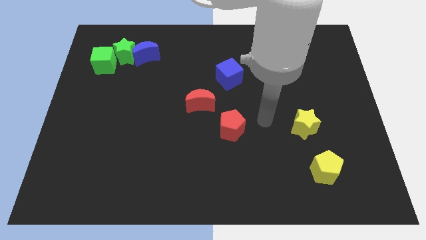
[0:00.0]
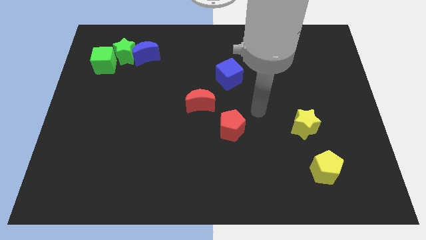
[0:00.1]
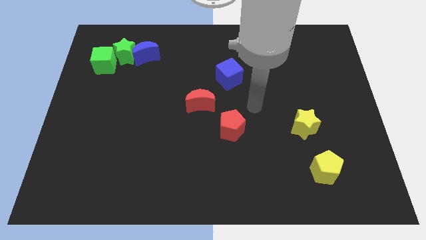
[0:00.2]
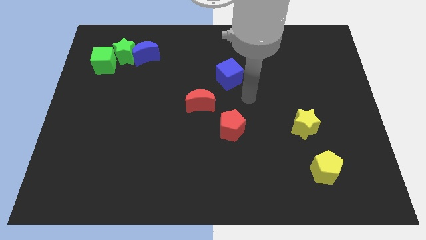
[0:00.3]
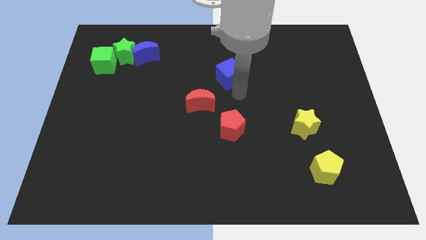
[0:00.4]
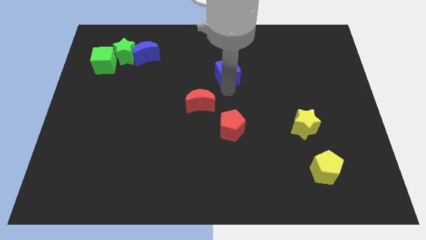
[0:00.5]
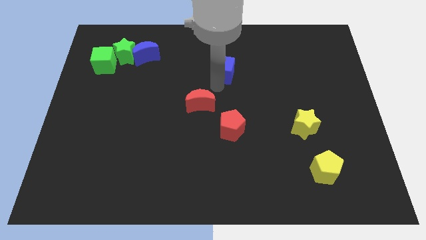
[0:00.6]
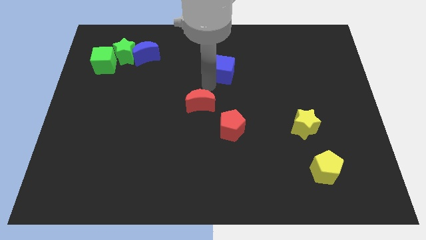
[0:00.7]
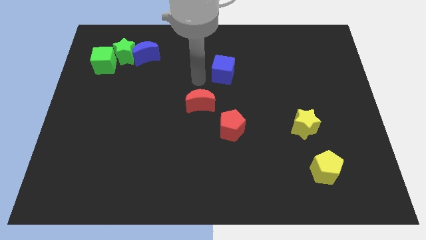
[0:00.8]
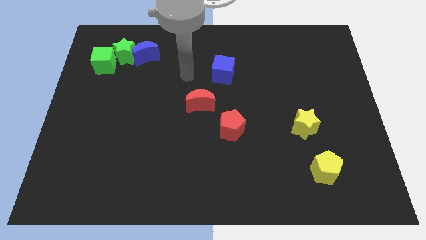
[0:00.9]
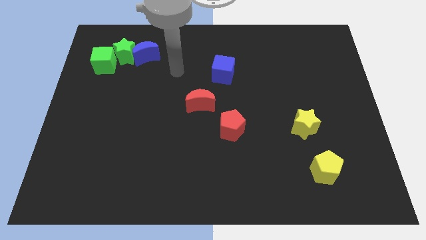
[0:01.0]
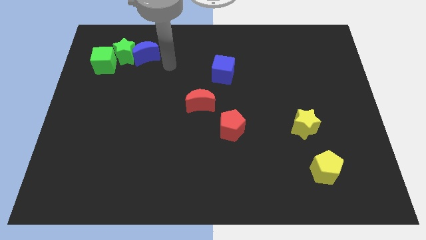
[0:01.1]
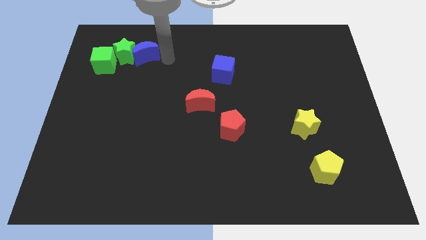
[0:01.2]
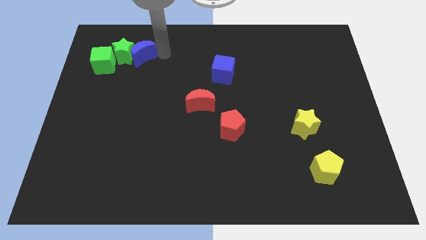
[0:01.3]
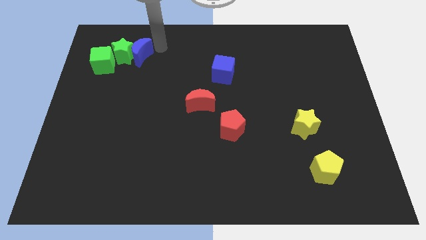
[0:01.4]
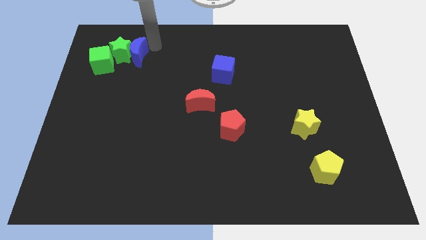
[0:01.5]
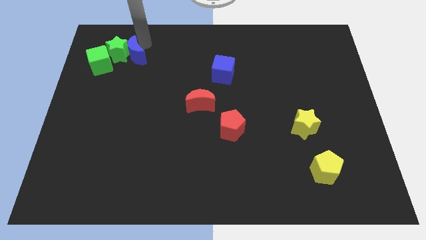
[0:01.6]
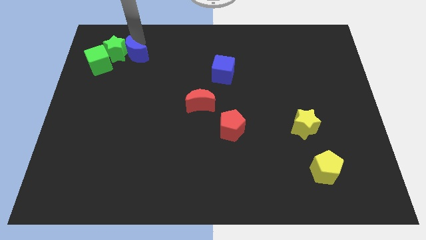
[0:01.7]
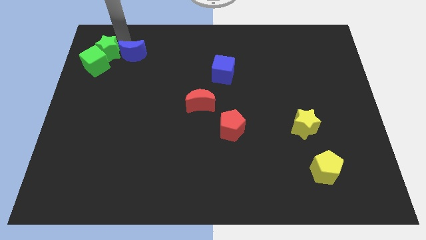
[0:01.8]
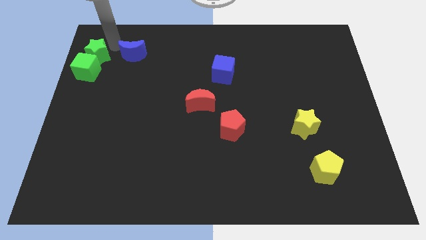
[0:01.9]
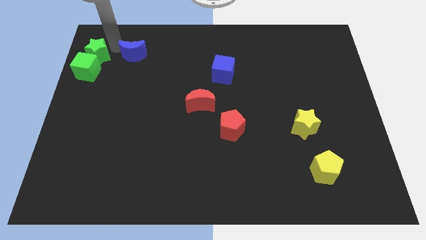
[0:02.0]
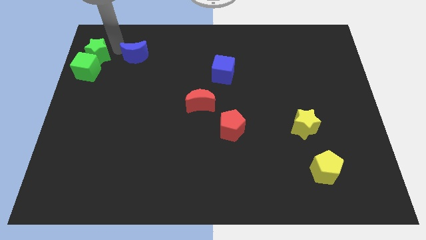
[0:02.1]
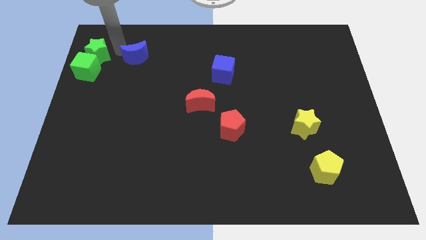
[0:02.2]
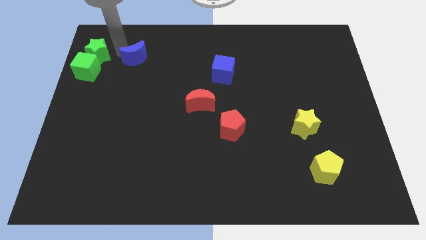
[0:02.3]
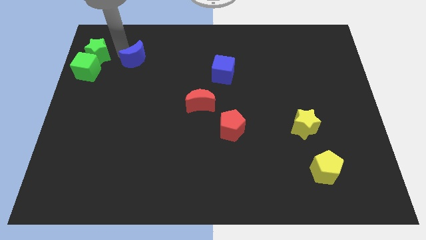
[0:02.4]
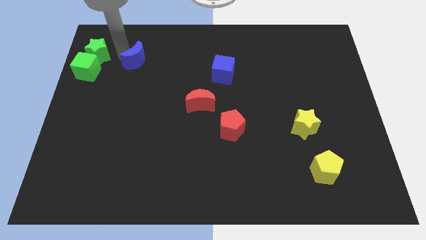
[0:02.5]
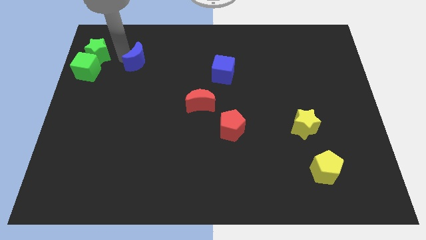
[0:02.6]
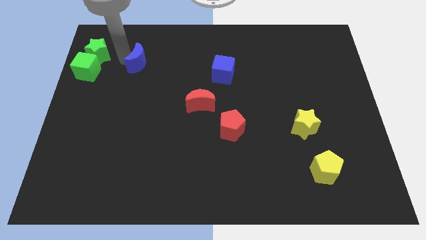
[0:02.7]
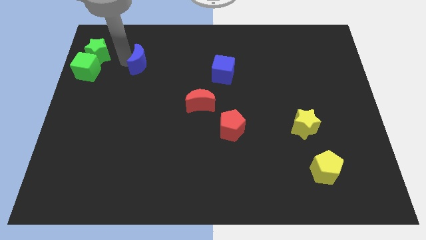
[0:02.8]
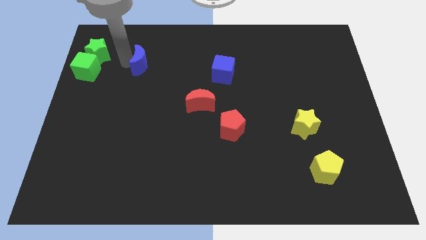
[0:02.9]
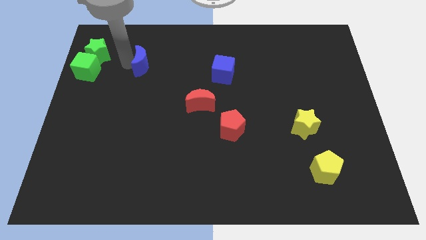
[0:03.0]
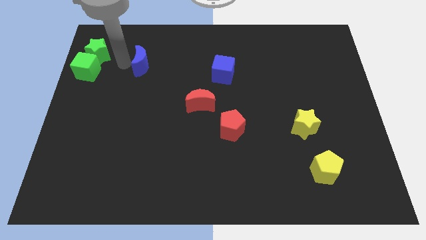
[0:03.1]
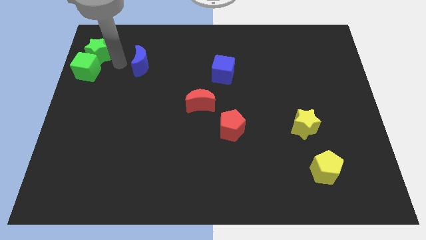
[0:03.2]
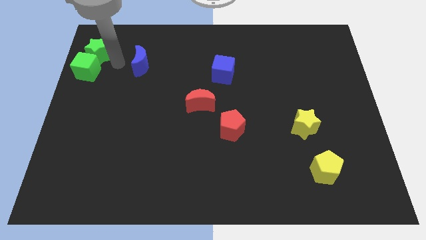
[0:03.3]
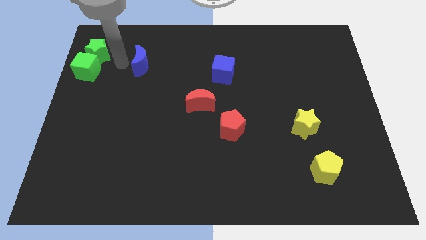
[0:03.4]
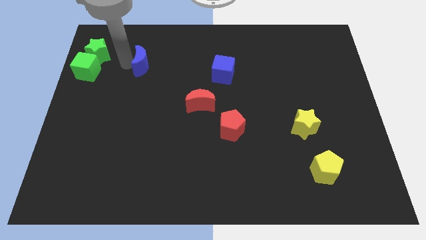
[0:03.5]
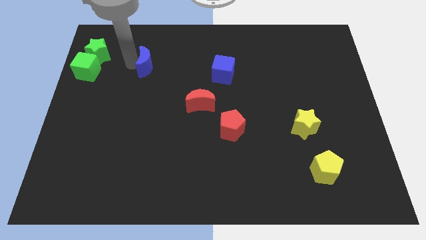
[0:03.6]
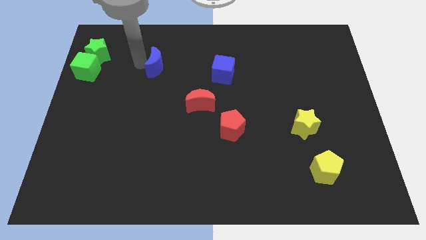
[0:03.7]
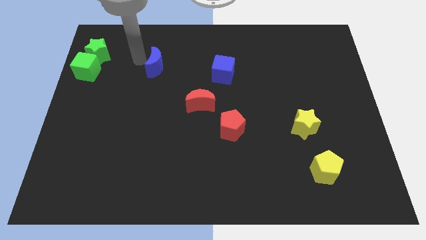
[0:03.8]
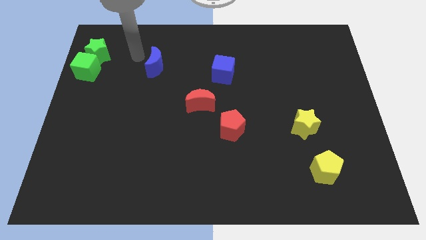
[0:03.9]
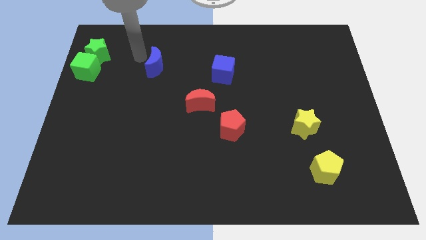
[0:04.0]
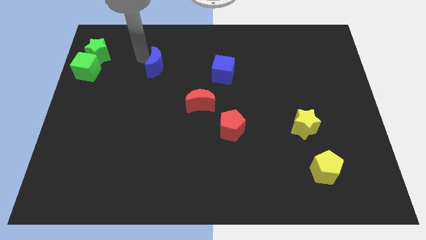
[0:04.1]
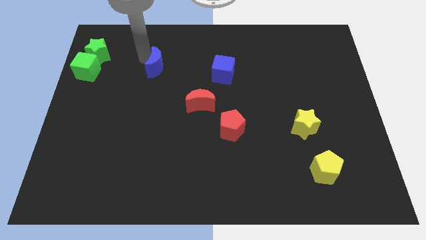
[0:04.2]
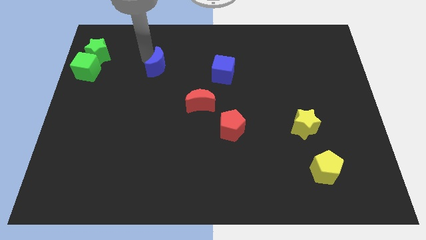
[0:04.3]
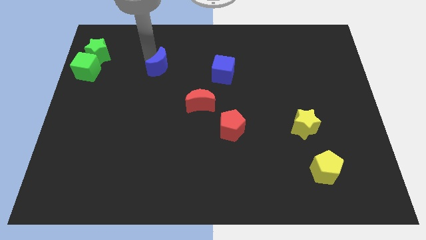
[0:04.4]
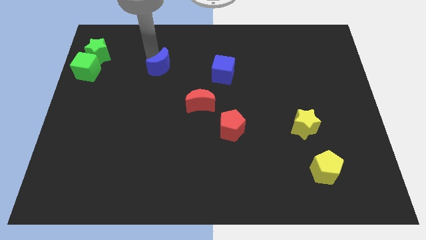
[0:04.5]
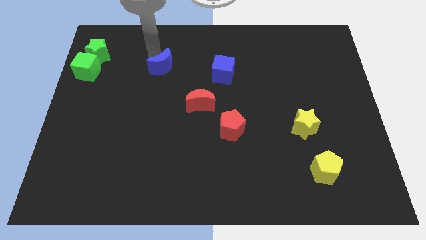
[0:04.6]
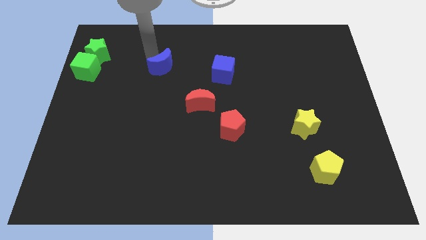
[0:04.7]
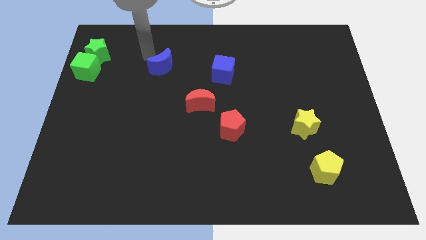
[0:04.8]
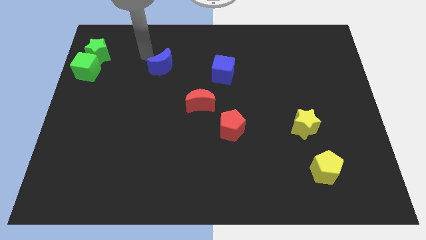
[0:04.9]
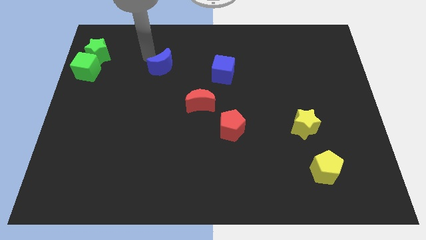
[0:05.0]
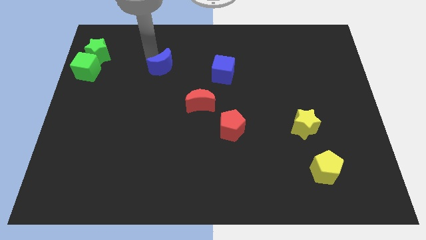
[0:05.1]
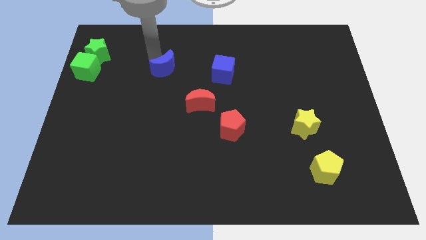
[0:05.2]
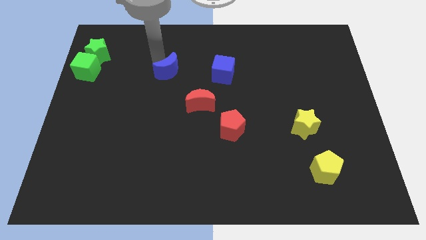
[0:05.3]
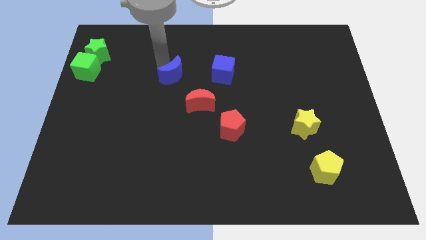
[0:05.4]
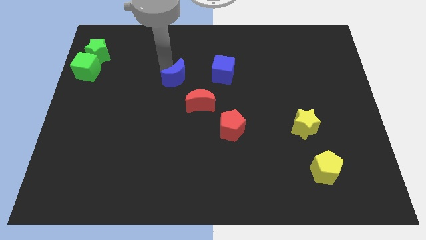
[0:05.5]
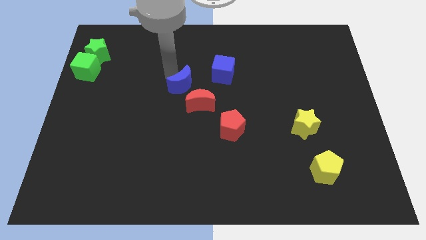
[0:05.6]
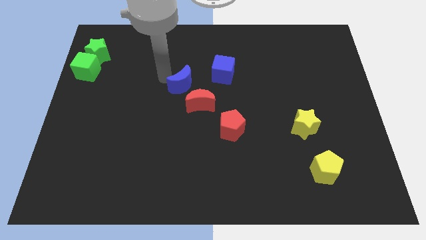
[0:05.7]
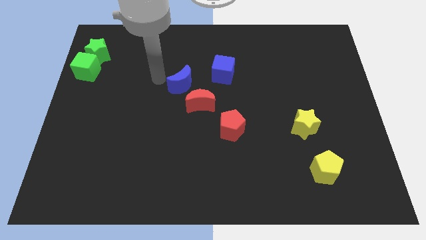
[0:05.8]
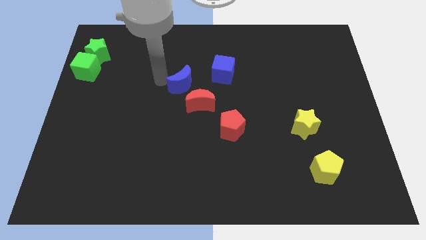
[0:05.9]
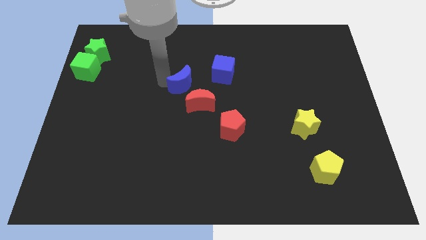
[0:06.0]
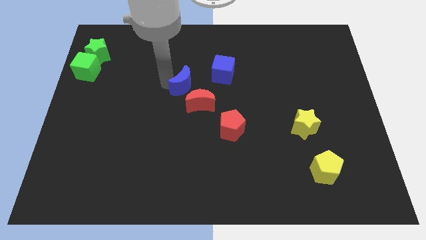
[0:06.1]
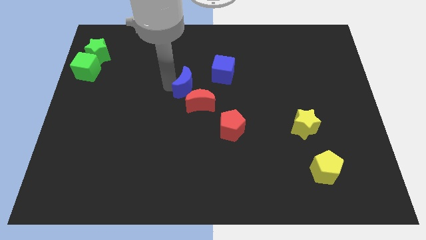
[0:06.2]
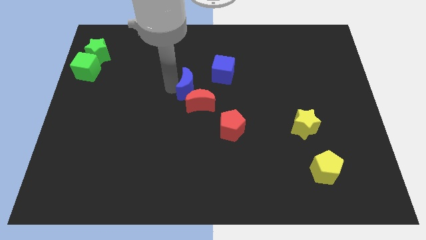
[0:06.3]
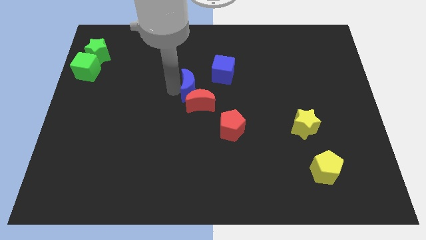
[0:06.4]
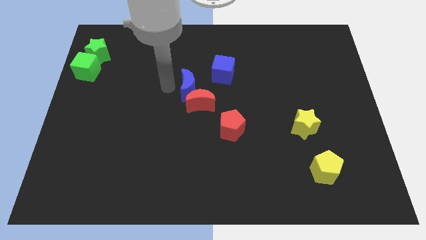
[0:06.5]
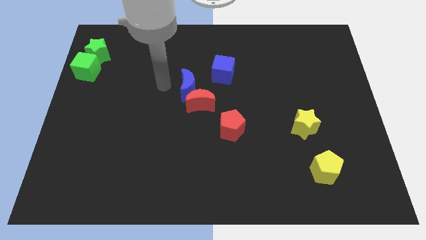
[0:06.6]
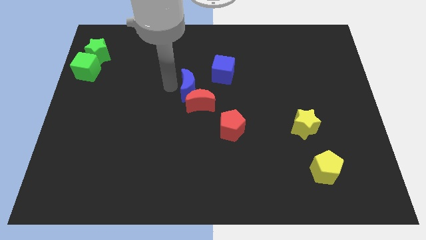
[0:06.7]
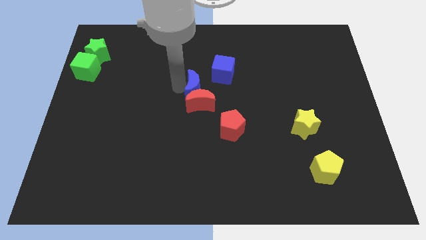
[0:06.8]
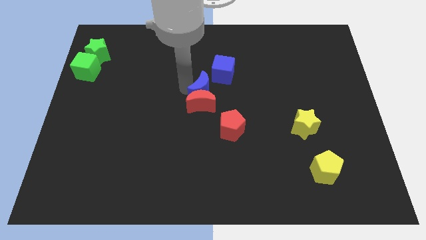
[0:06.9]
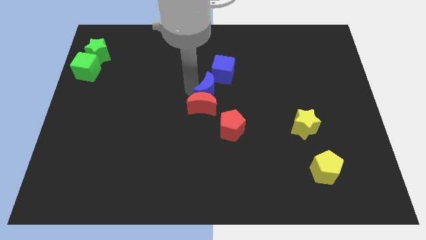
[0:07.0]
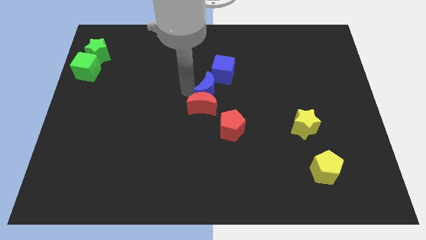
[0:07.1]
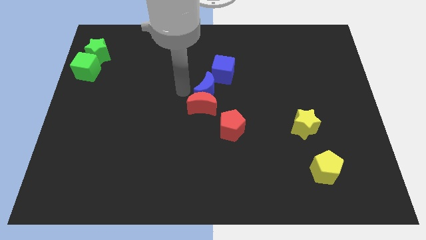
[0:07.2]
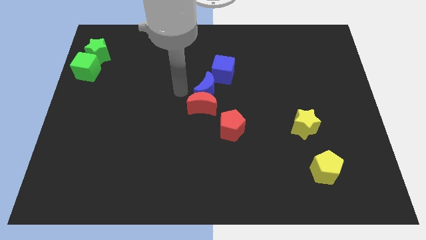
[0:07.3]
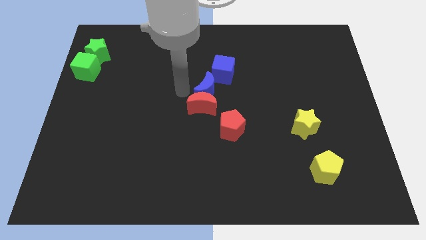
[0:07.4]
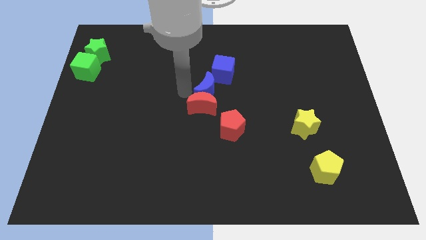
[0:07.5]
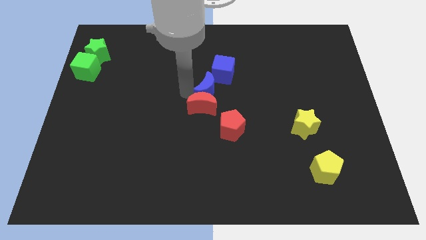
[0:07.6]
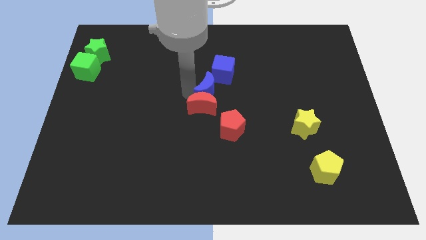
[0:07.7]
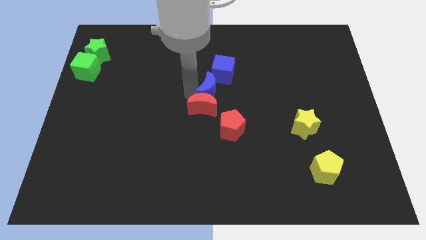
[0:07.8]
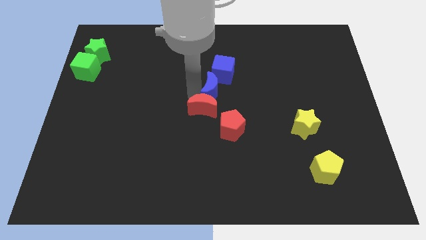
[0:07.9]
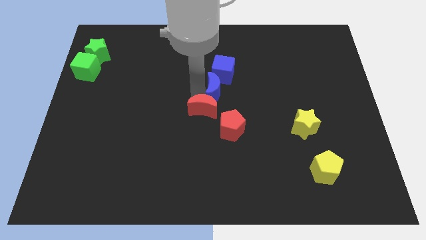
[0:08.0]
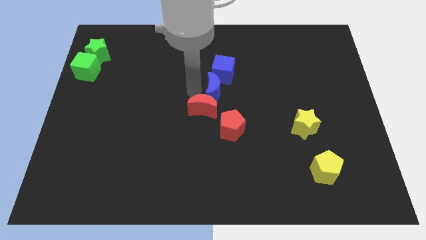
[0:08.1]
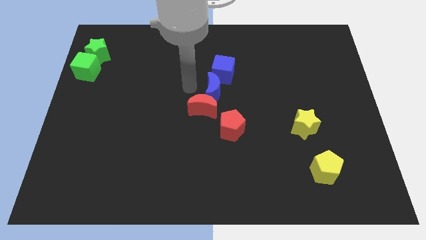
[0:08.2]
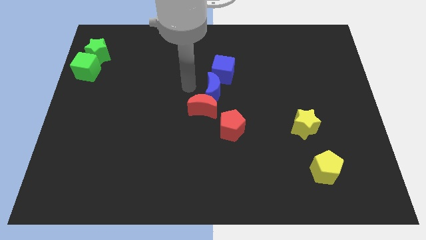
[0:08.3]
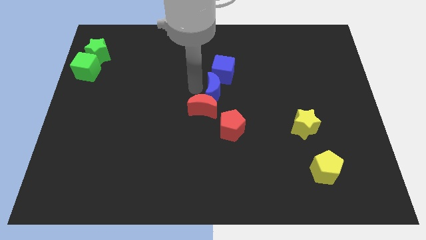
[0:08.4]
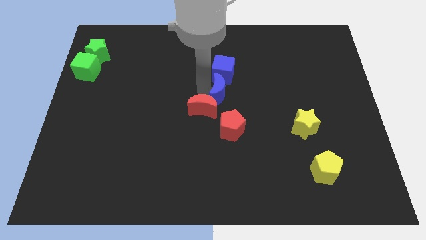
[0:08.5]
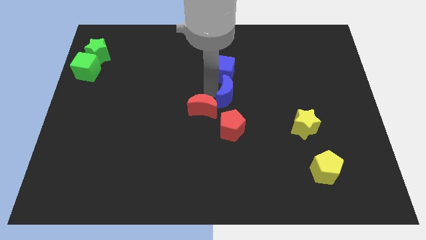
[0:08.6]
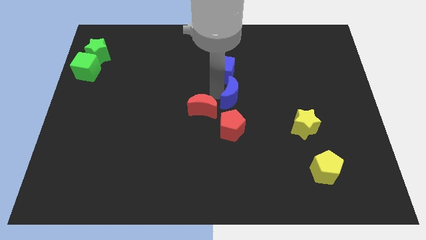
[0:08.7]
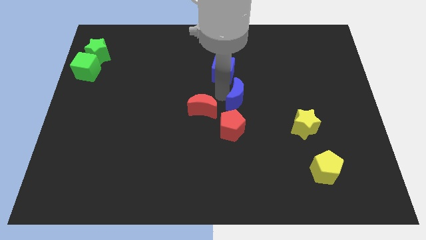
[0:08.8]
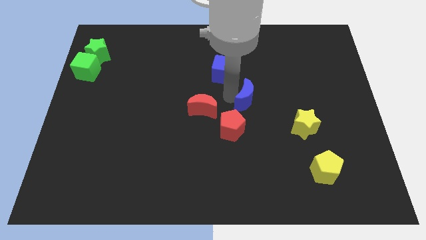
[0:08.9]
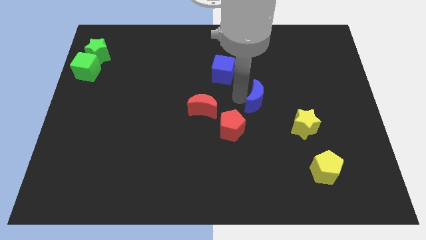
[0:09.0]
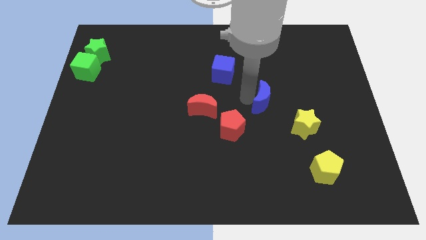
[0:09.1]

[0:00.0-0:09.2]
slide the blue moon to the top left of the yellow star
